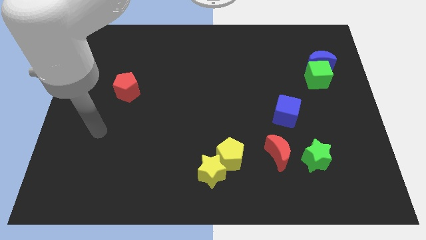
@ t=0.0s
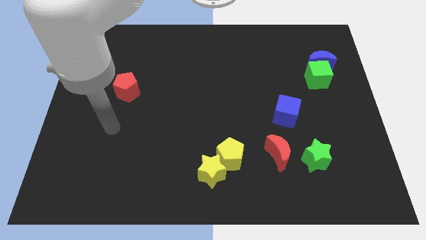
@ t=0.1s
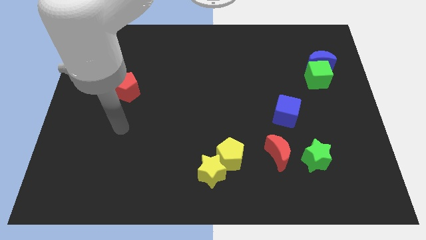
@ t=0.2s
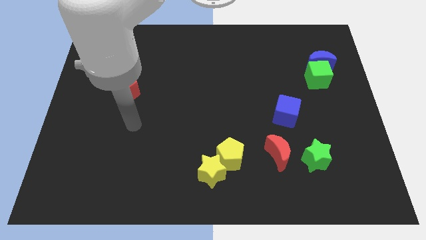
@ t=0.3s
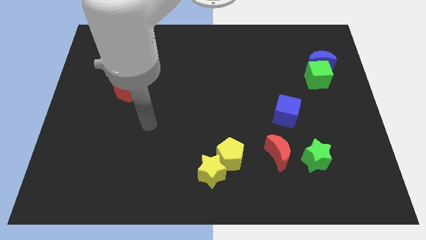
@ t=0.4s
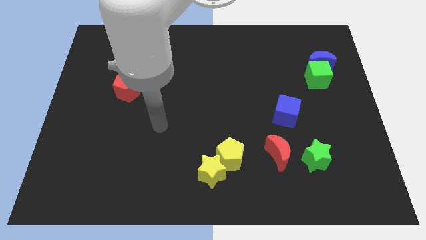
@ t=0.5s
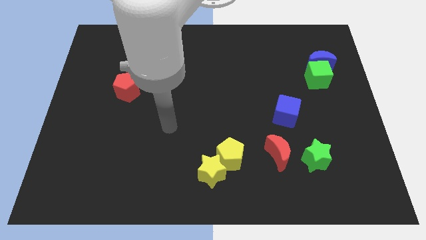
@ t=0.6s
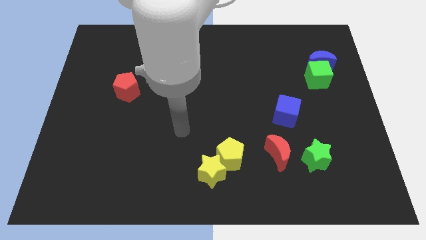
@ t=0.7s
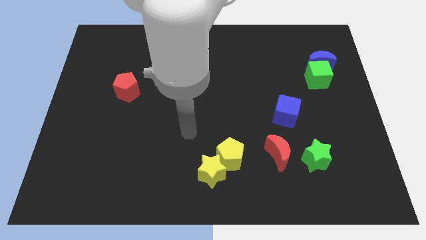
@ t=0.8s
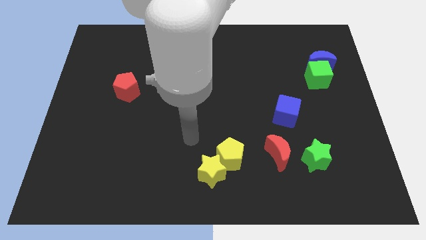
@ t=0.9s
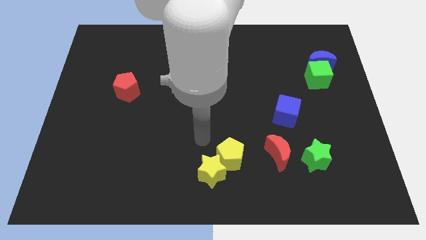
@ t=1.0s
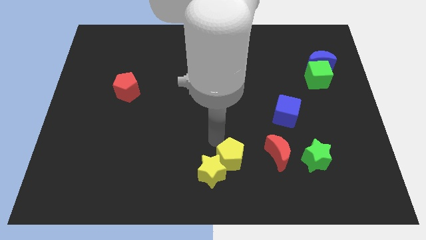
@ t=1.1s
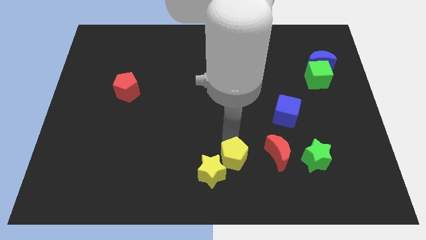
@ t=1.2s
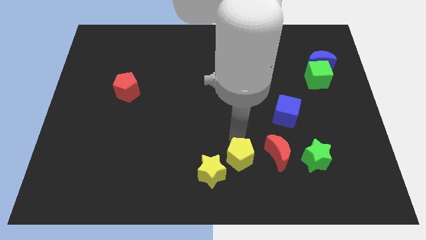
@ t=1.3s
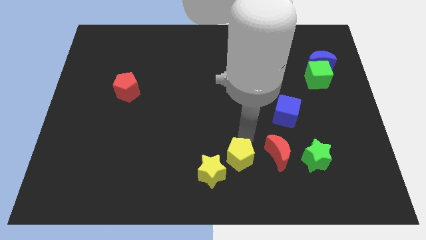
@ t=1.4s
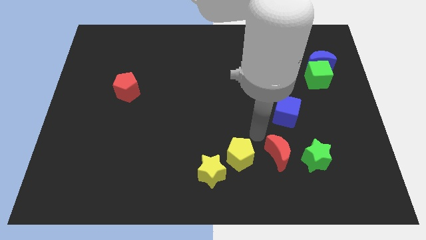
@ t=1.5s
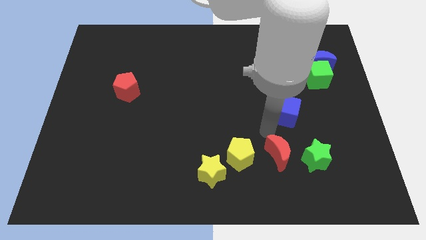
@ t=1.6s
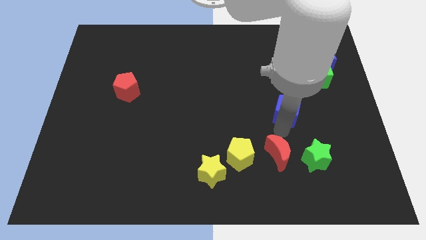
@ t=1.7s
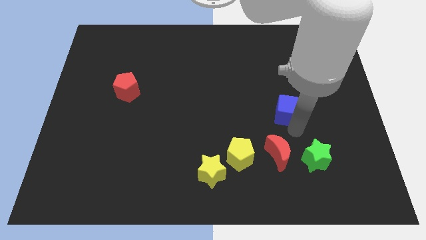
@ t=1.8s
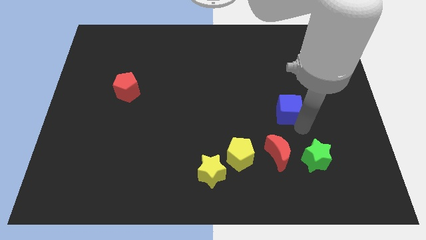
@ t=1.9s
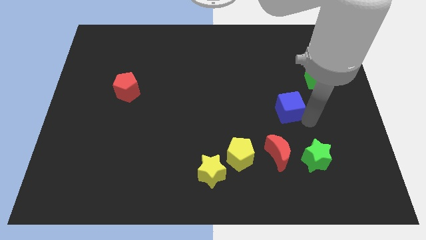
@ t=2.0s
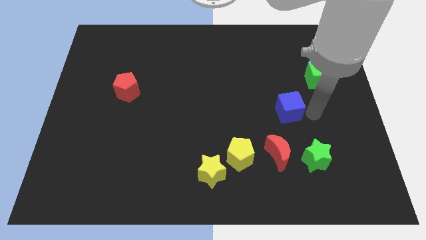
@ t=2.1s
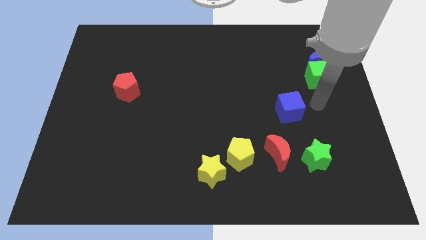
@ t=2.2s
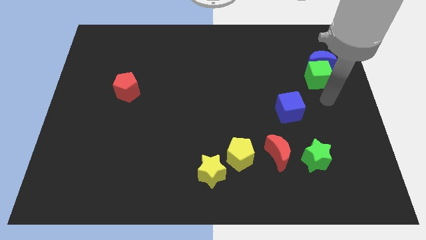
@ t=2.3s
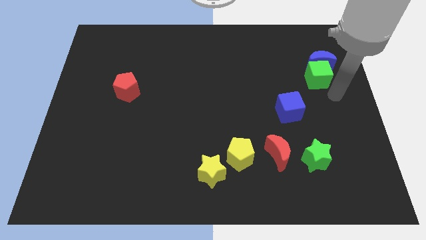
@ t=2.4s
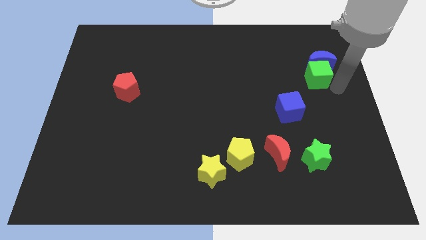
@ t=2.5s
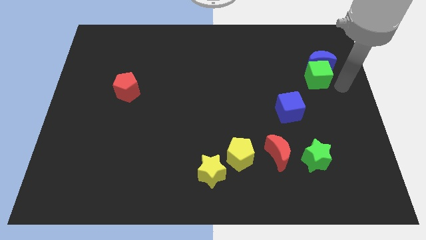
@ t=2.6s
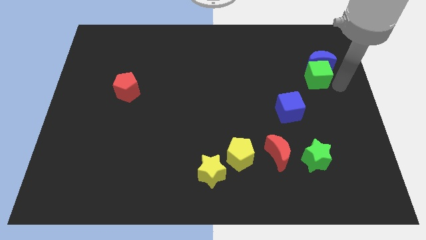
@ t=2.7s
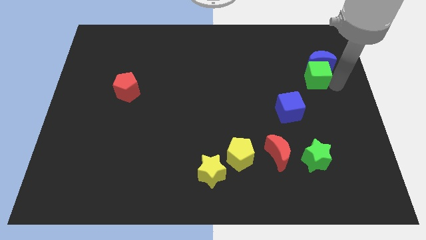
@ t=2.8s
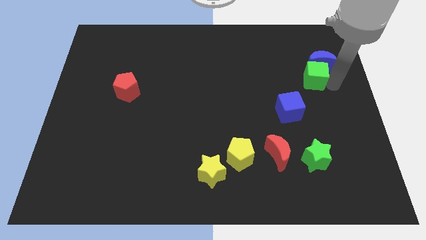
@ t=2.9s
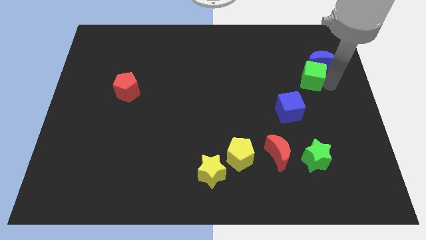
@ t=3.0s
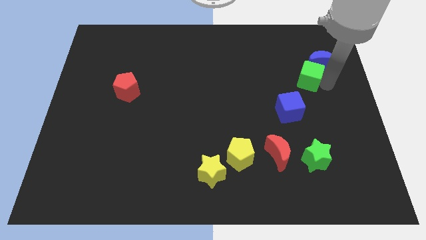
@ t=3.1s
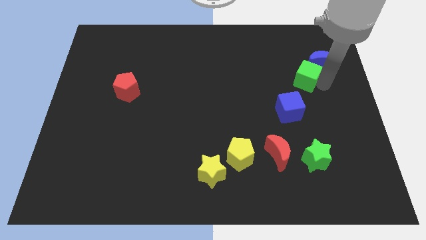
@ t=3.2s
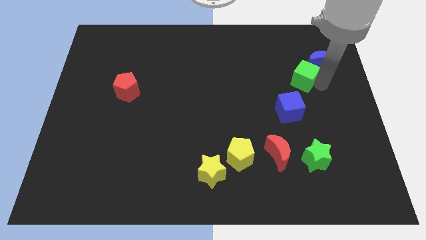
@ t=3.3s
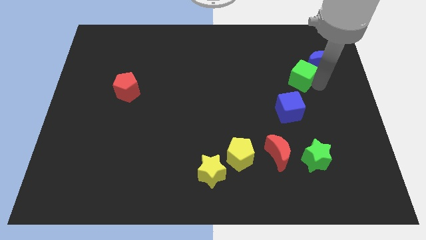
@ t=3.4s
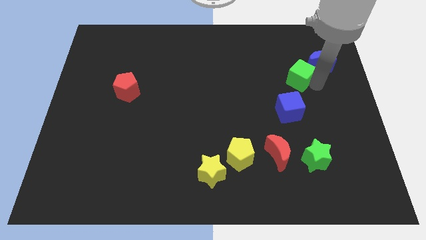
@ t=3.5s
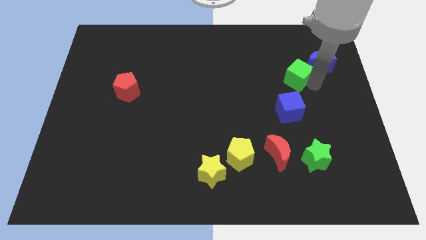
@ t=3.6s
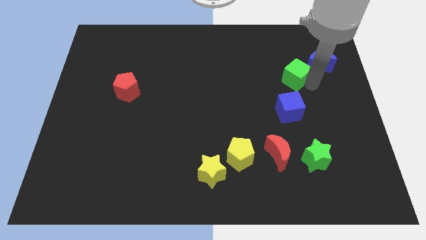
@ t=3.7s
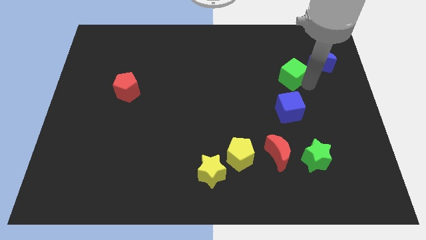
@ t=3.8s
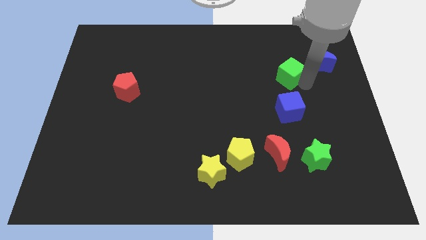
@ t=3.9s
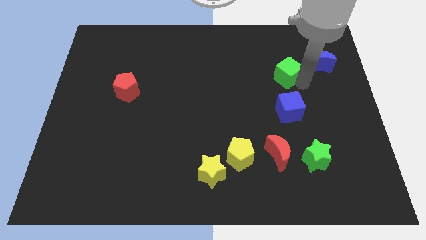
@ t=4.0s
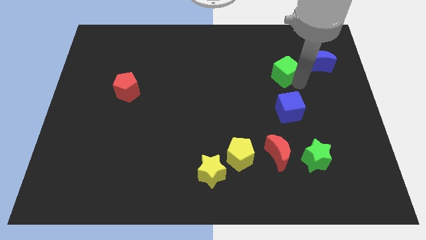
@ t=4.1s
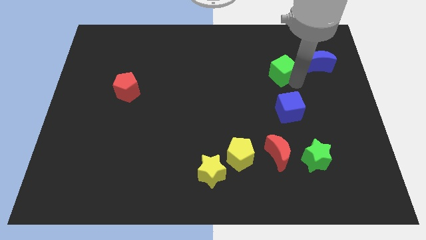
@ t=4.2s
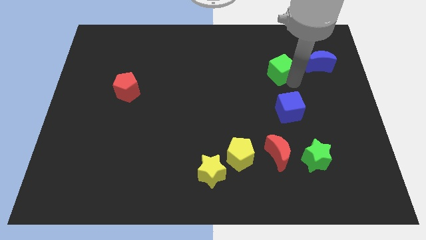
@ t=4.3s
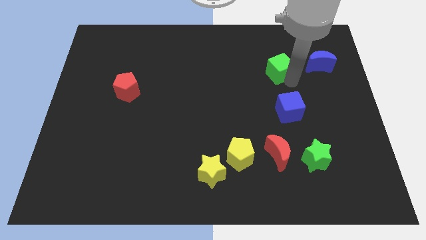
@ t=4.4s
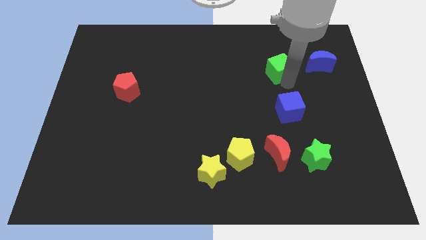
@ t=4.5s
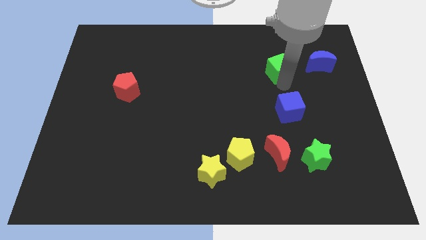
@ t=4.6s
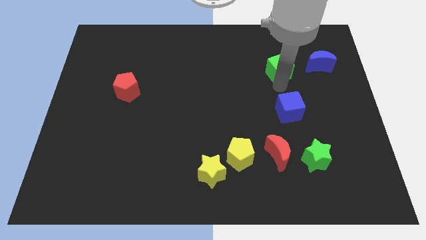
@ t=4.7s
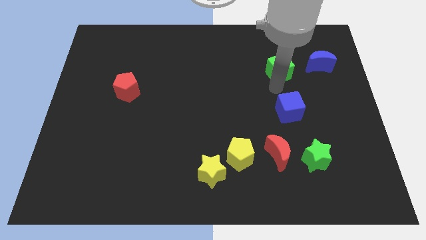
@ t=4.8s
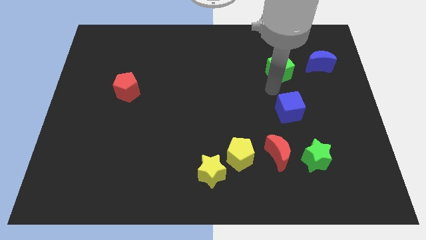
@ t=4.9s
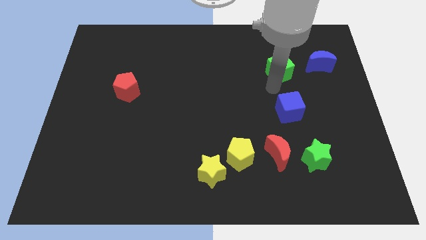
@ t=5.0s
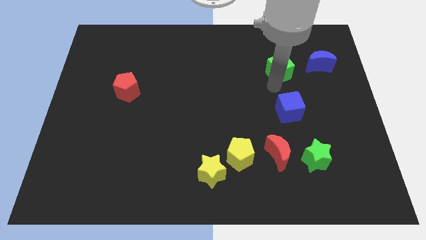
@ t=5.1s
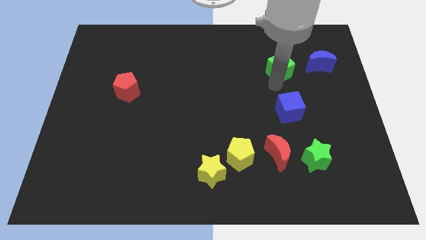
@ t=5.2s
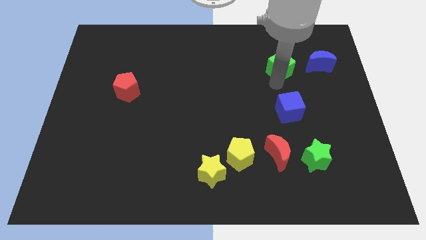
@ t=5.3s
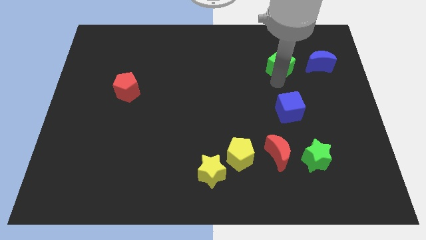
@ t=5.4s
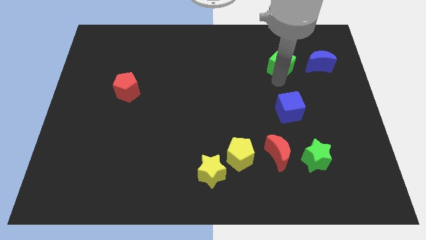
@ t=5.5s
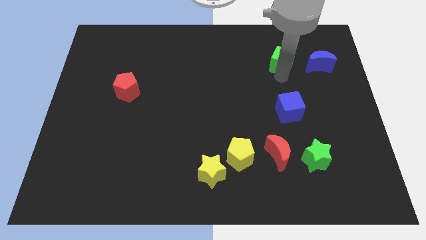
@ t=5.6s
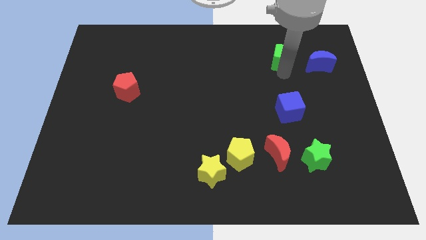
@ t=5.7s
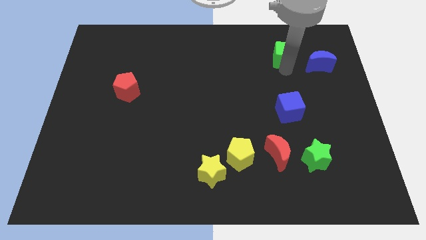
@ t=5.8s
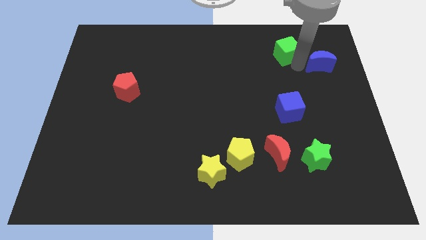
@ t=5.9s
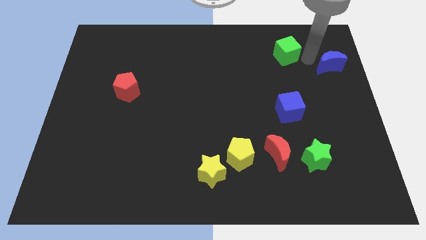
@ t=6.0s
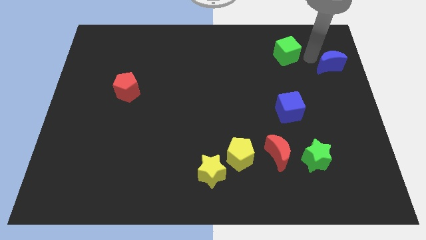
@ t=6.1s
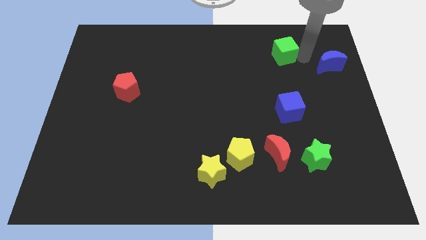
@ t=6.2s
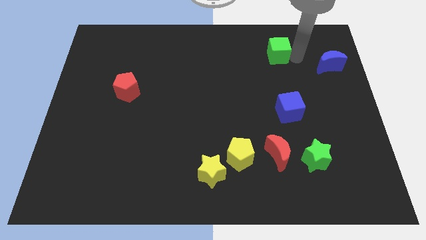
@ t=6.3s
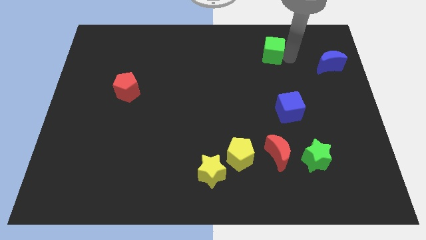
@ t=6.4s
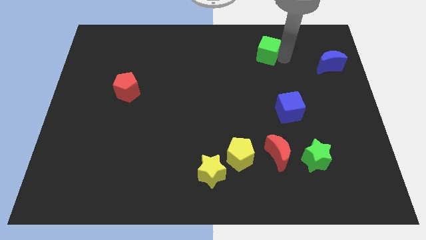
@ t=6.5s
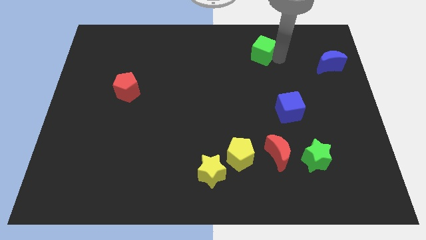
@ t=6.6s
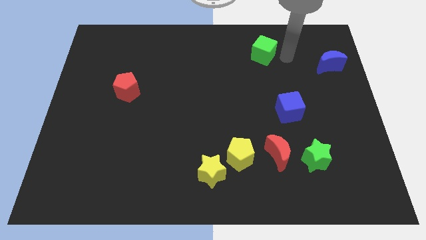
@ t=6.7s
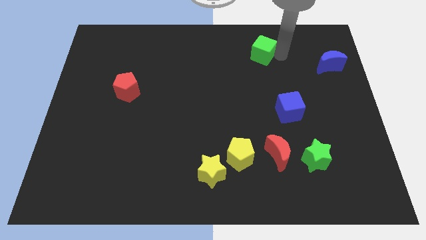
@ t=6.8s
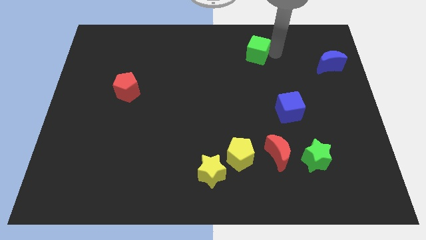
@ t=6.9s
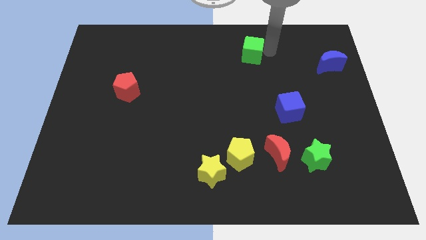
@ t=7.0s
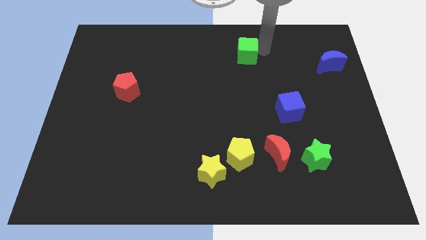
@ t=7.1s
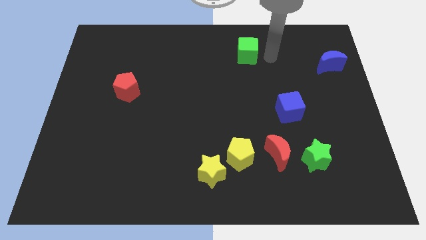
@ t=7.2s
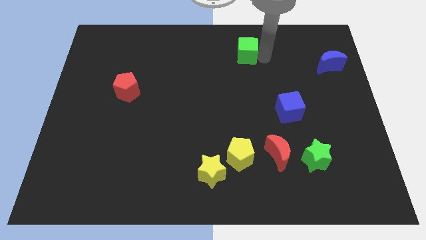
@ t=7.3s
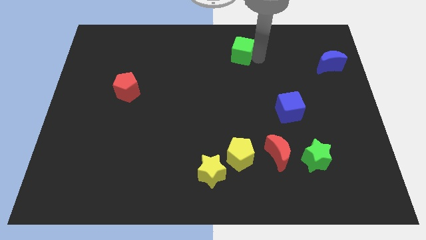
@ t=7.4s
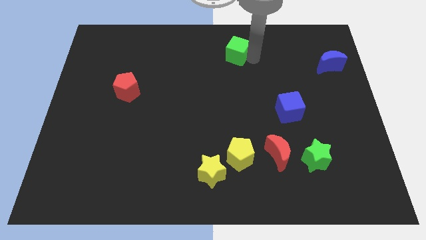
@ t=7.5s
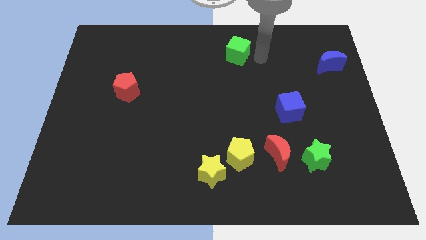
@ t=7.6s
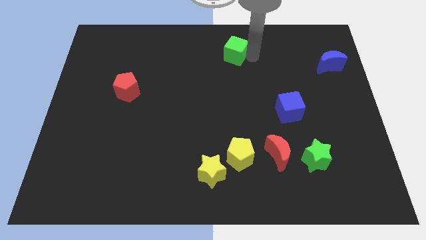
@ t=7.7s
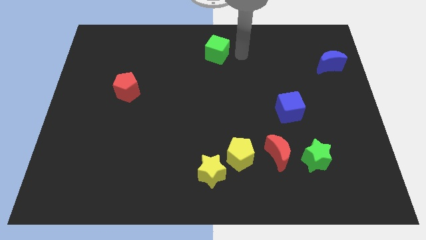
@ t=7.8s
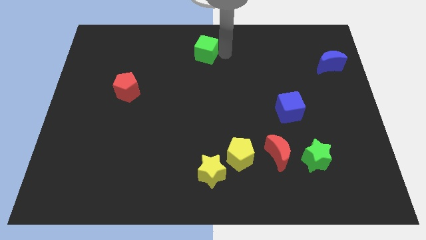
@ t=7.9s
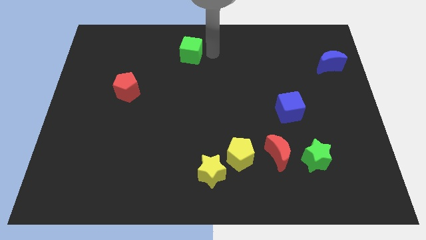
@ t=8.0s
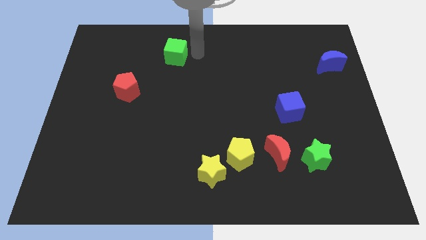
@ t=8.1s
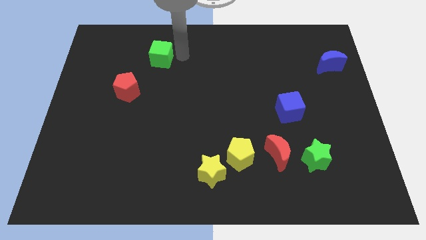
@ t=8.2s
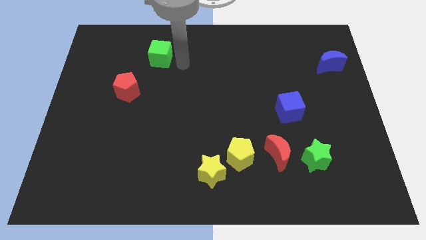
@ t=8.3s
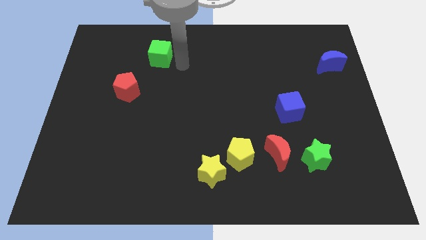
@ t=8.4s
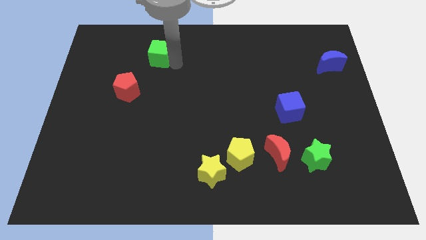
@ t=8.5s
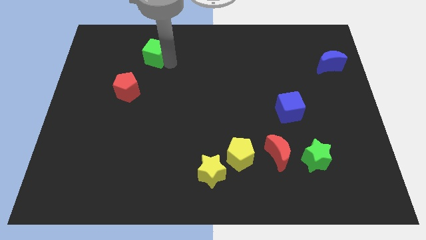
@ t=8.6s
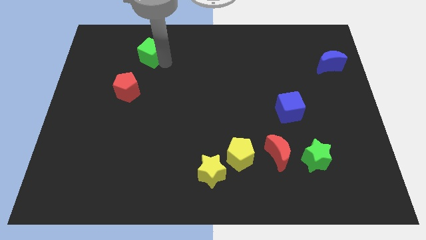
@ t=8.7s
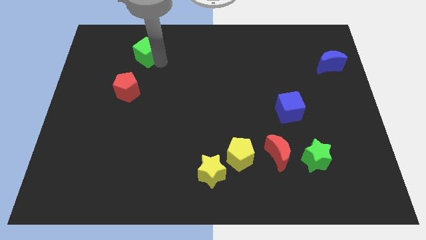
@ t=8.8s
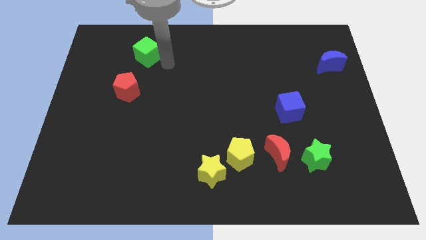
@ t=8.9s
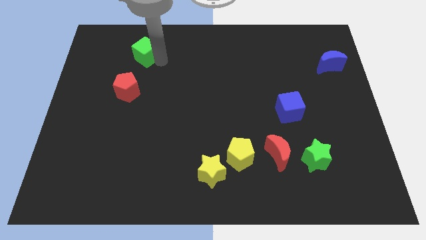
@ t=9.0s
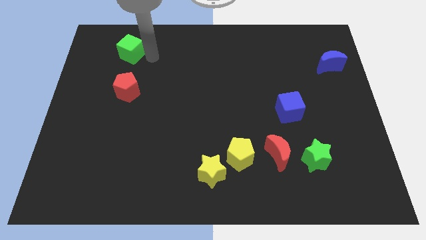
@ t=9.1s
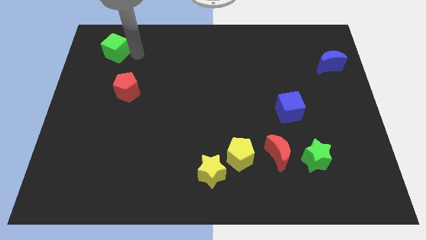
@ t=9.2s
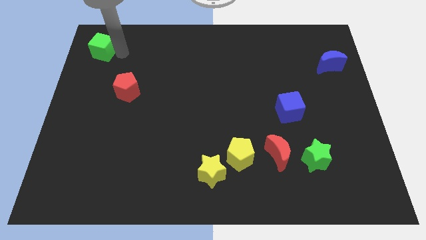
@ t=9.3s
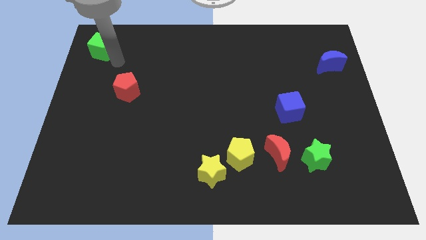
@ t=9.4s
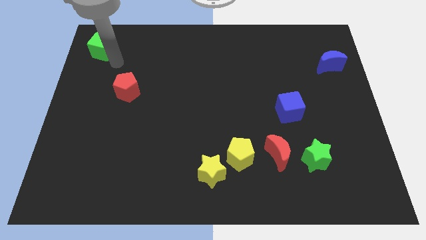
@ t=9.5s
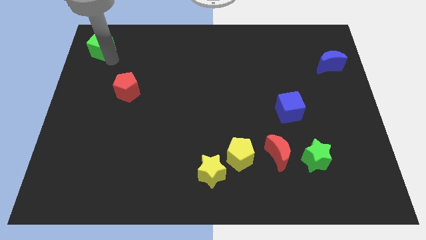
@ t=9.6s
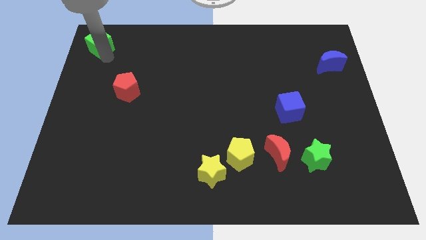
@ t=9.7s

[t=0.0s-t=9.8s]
push the green cube to the upper left corner
